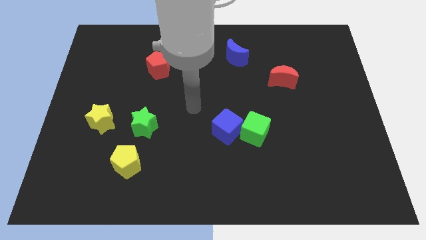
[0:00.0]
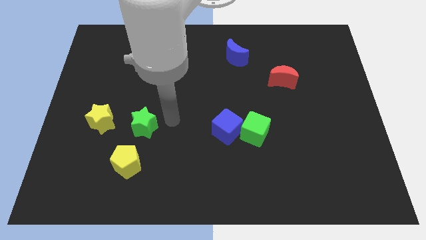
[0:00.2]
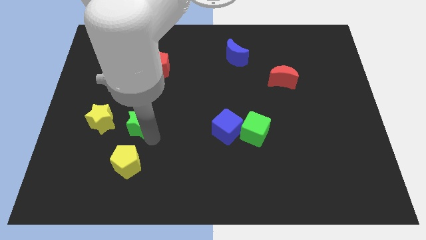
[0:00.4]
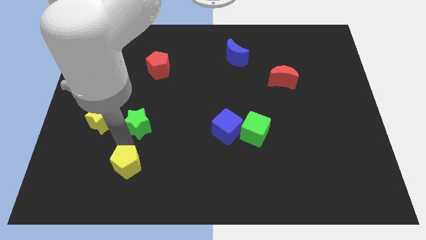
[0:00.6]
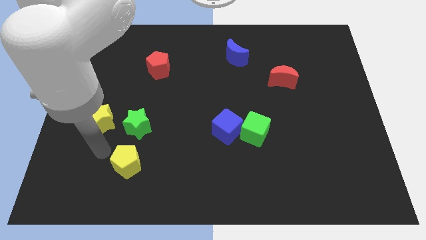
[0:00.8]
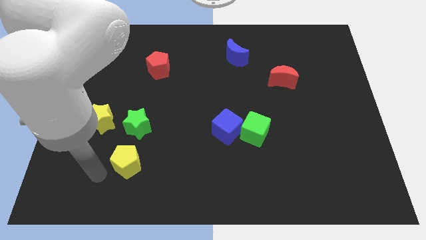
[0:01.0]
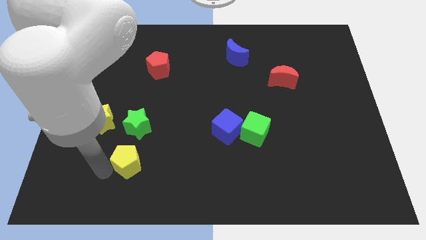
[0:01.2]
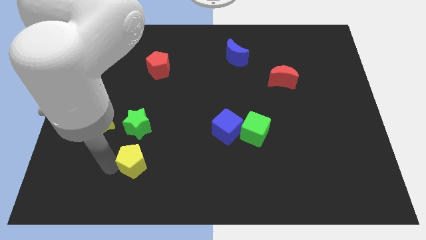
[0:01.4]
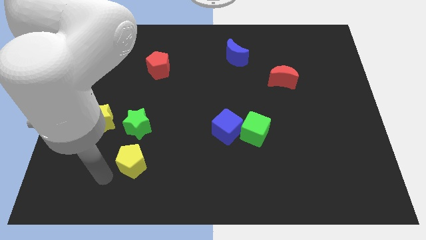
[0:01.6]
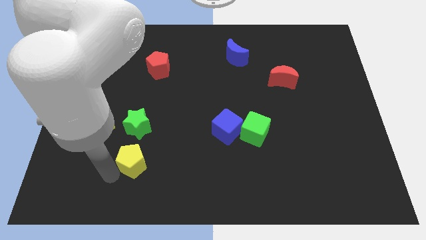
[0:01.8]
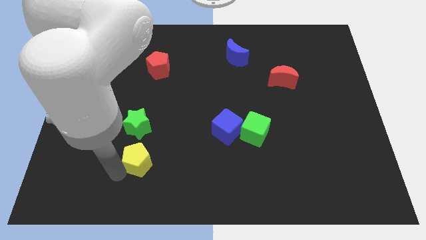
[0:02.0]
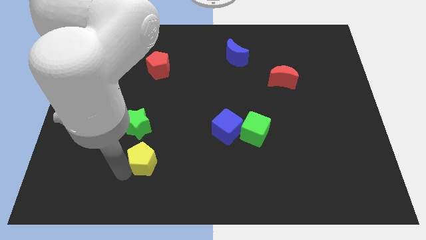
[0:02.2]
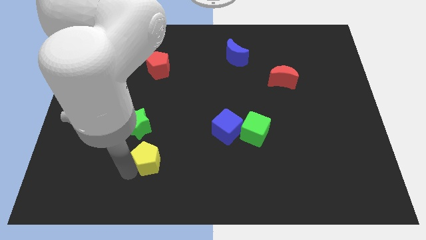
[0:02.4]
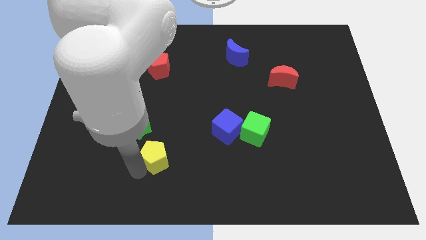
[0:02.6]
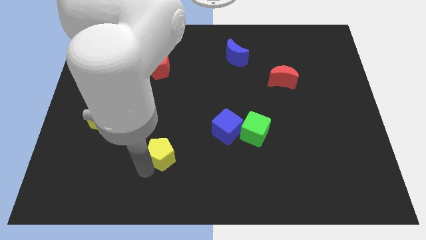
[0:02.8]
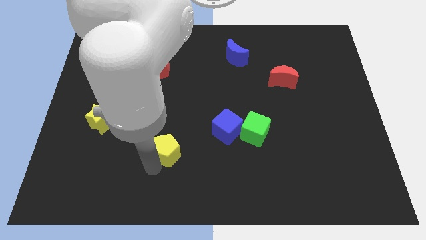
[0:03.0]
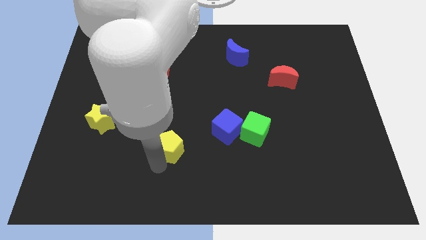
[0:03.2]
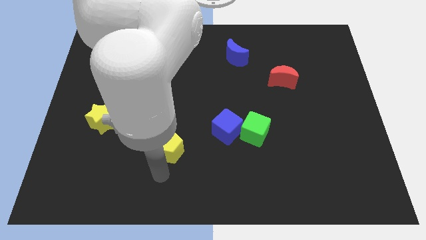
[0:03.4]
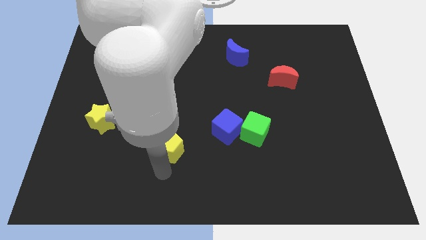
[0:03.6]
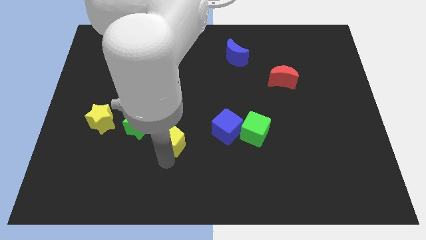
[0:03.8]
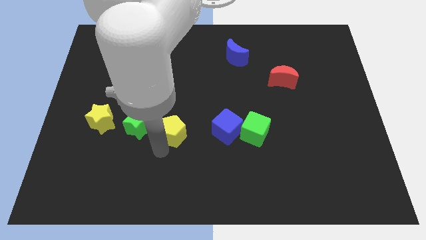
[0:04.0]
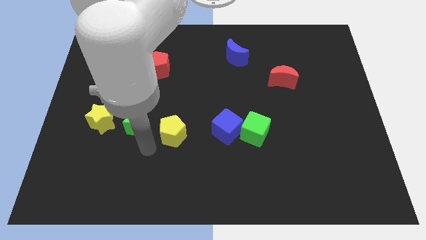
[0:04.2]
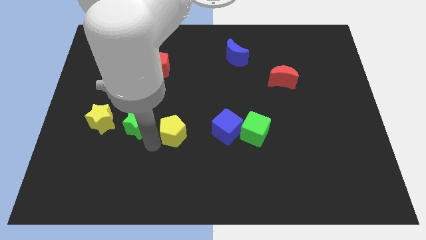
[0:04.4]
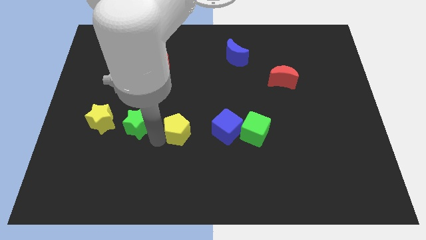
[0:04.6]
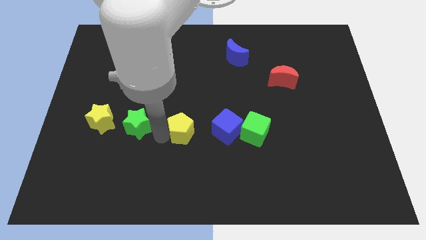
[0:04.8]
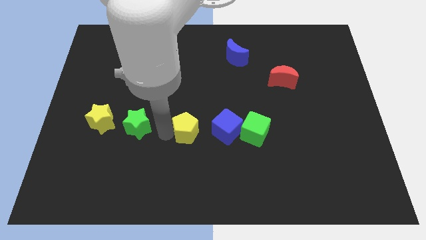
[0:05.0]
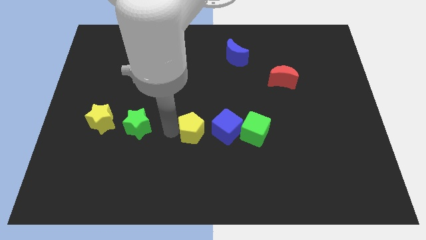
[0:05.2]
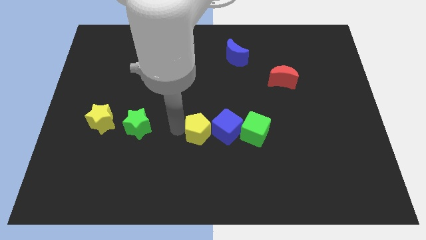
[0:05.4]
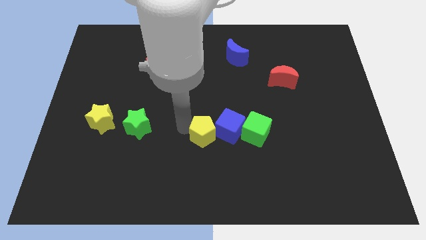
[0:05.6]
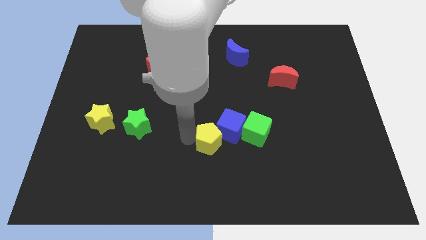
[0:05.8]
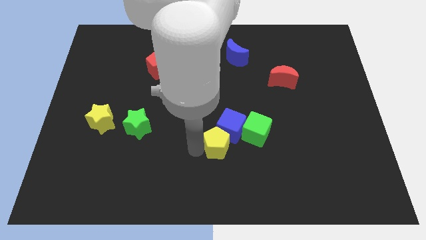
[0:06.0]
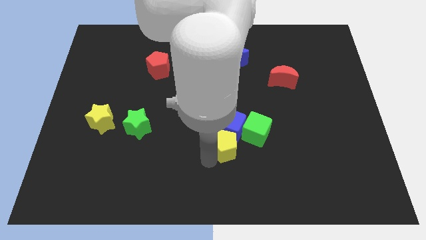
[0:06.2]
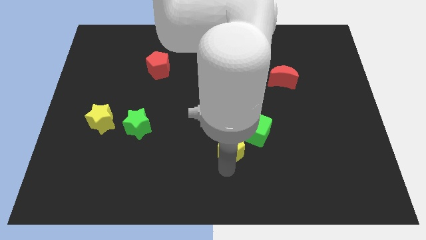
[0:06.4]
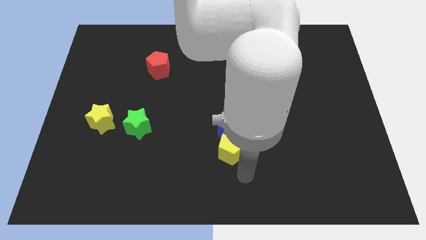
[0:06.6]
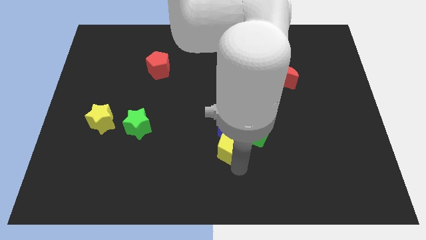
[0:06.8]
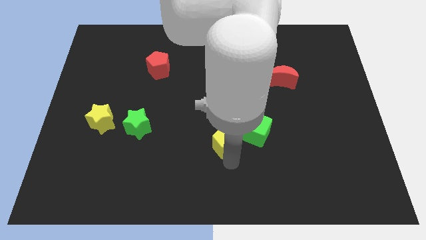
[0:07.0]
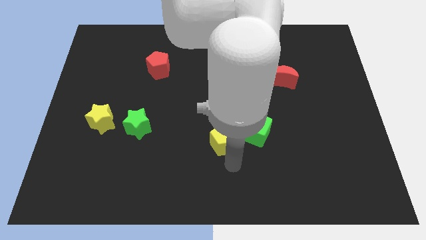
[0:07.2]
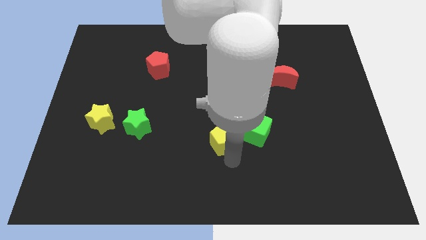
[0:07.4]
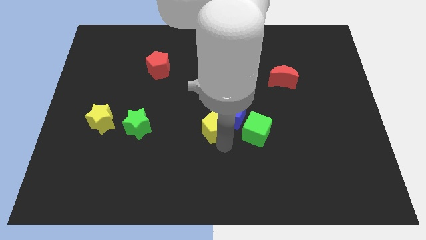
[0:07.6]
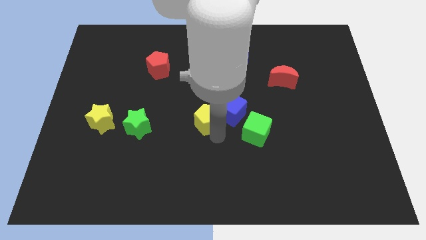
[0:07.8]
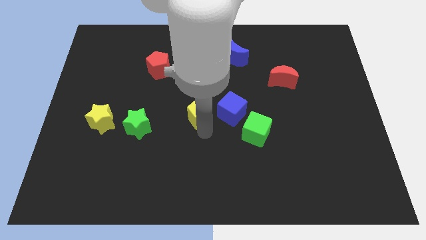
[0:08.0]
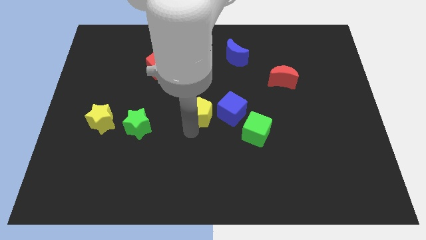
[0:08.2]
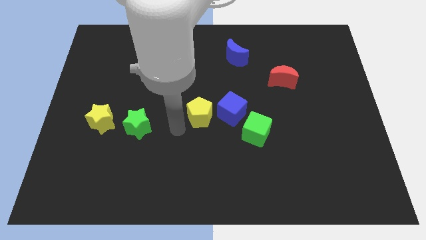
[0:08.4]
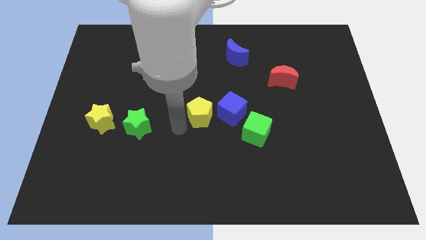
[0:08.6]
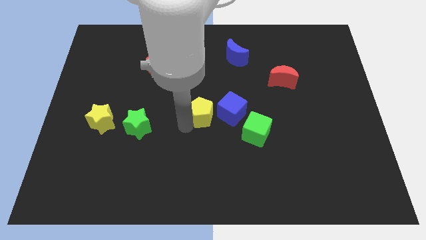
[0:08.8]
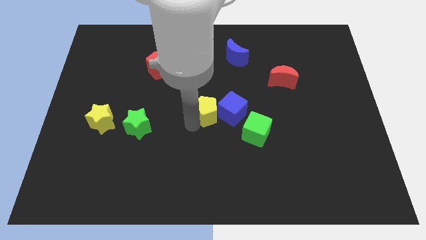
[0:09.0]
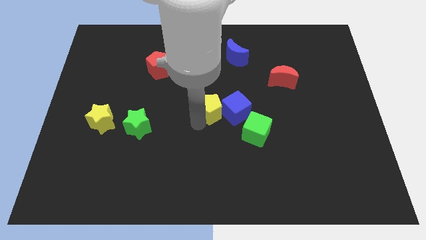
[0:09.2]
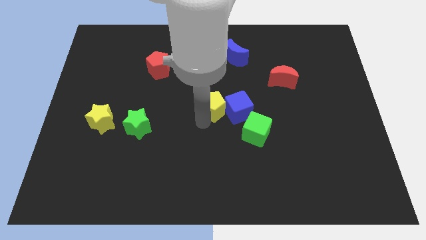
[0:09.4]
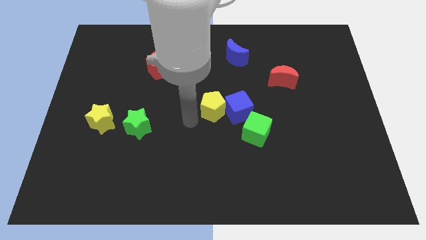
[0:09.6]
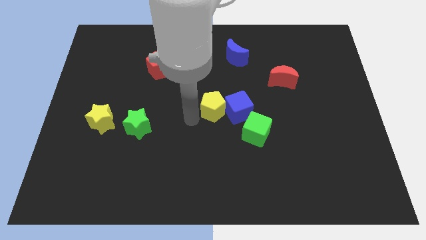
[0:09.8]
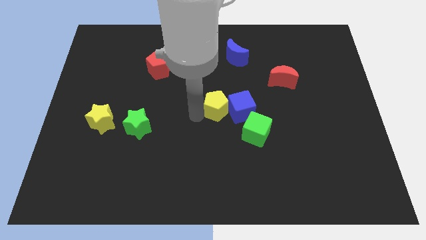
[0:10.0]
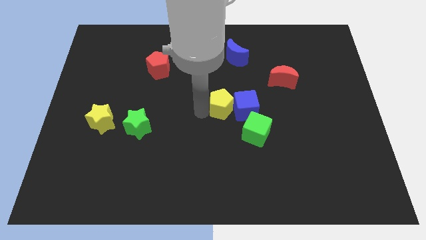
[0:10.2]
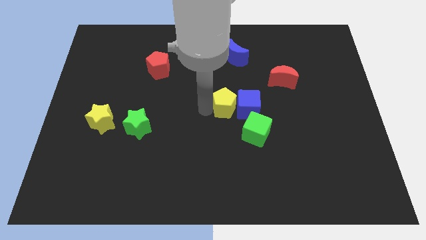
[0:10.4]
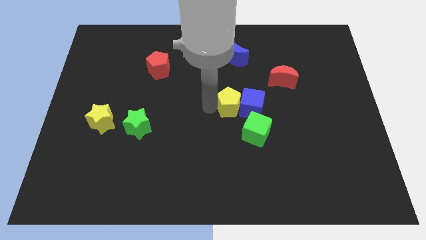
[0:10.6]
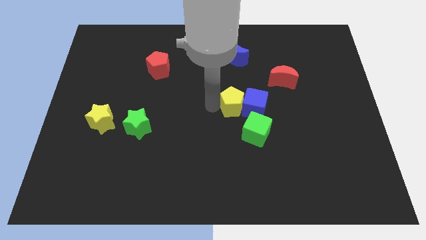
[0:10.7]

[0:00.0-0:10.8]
put the yellow pentagon above the green cube

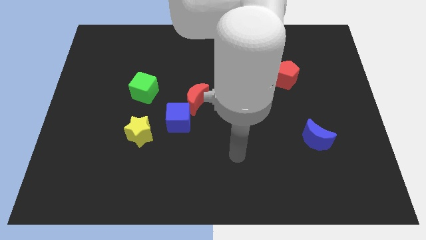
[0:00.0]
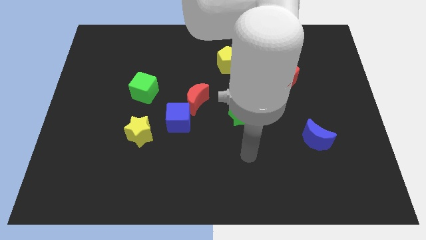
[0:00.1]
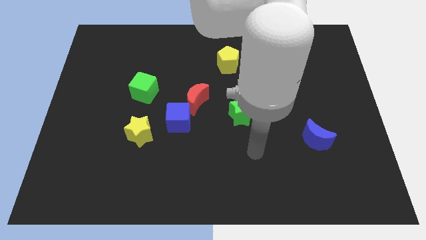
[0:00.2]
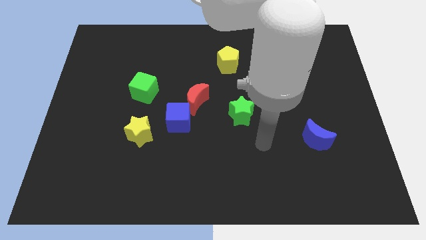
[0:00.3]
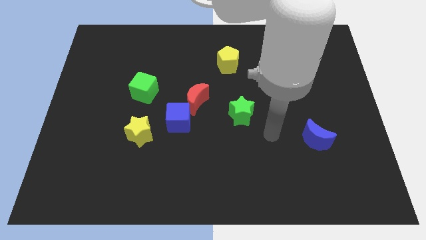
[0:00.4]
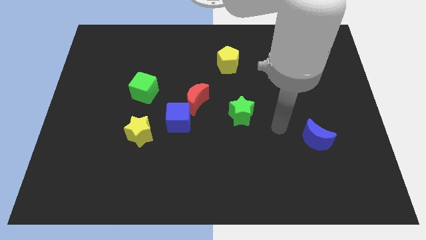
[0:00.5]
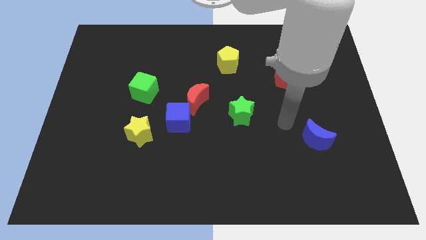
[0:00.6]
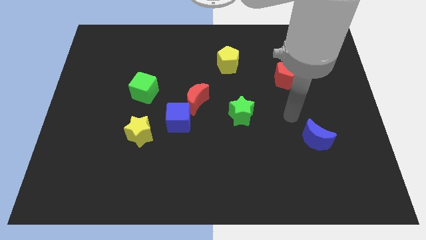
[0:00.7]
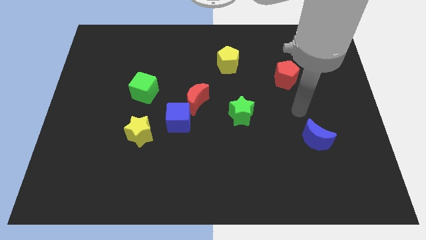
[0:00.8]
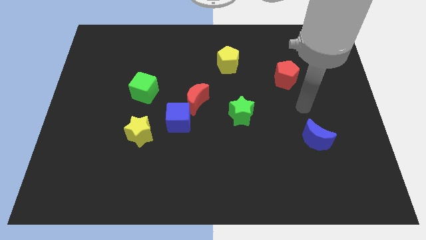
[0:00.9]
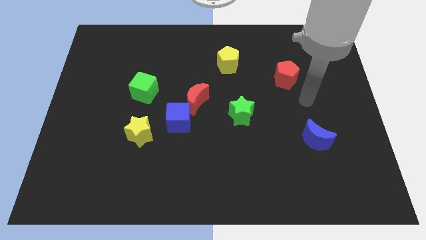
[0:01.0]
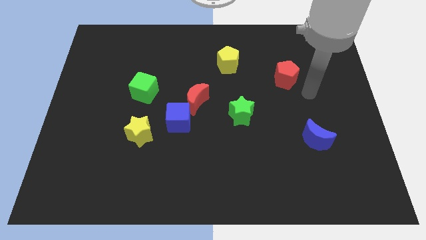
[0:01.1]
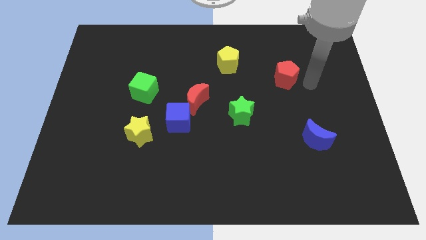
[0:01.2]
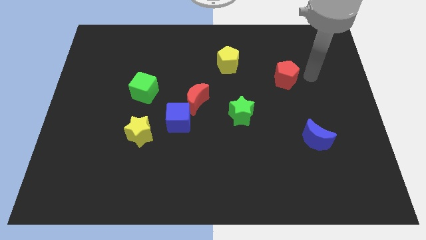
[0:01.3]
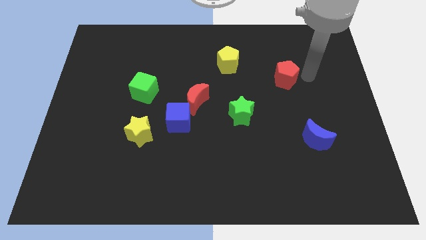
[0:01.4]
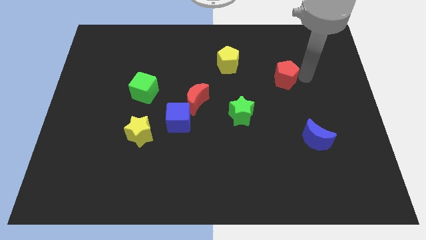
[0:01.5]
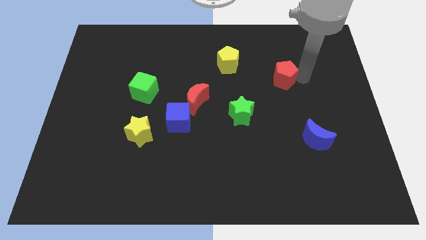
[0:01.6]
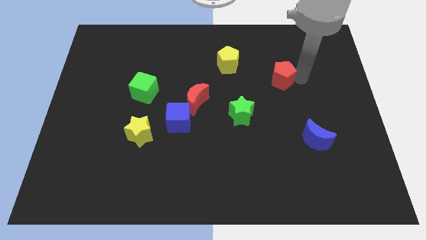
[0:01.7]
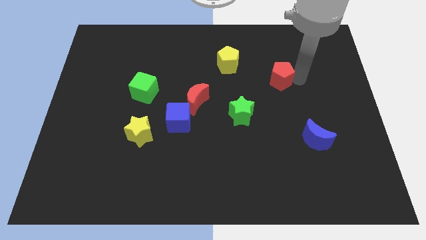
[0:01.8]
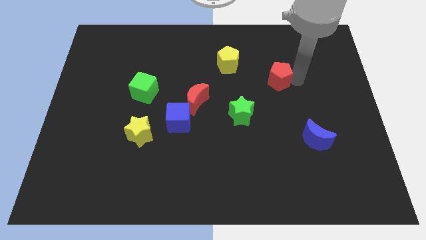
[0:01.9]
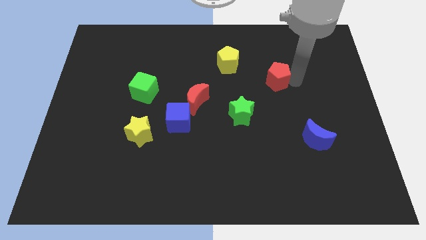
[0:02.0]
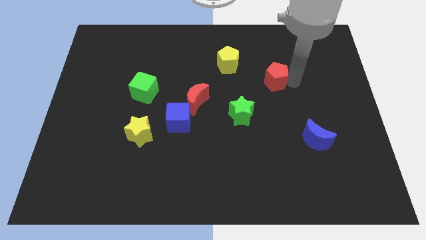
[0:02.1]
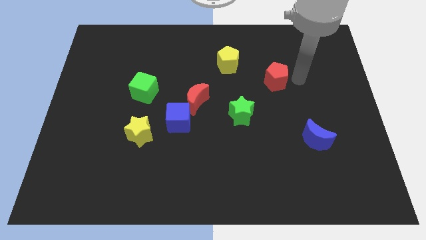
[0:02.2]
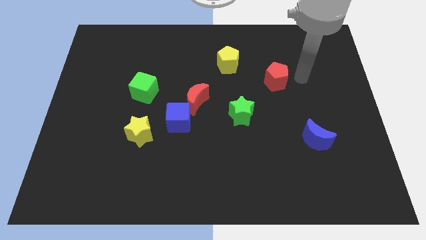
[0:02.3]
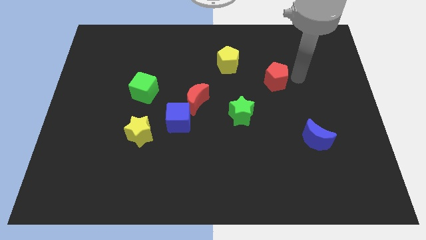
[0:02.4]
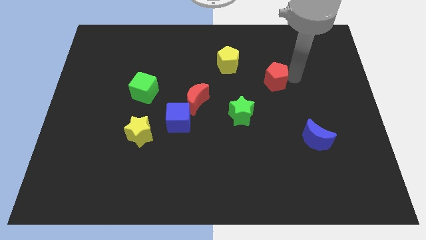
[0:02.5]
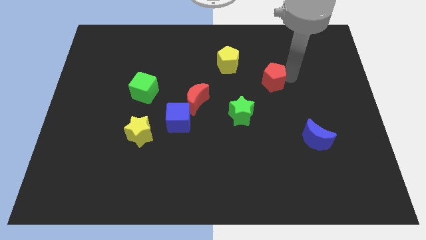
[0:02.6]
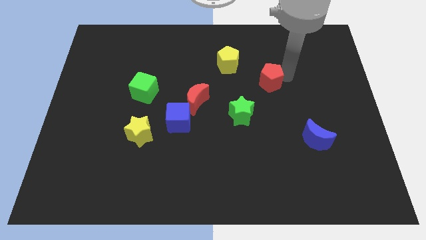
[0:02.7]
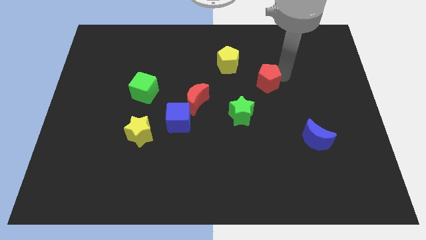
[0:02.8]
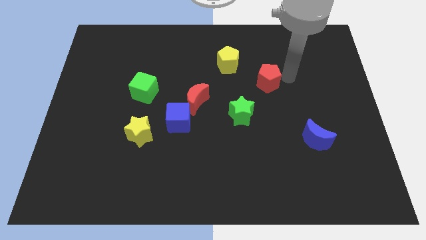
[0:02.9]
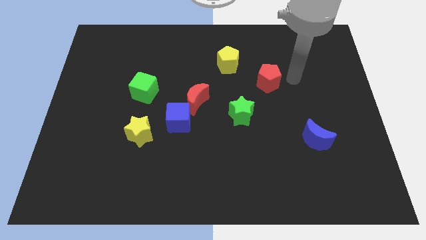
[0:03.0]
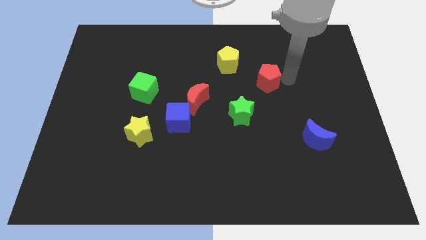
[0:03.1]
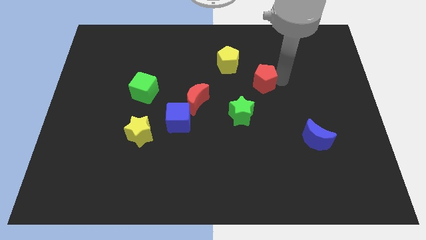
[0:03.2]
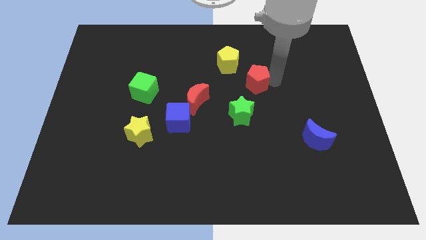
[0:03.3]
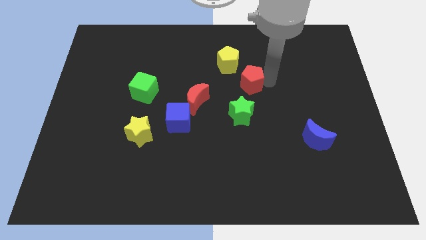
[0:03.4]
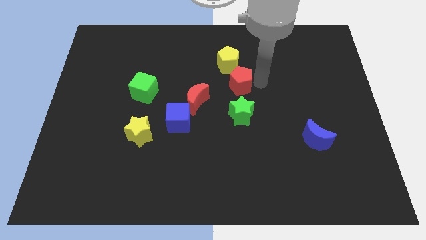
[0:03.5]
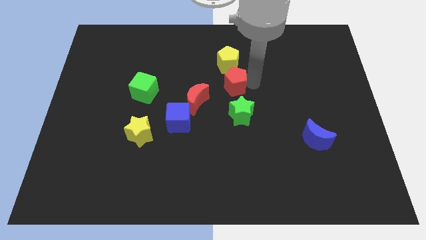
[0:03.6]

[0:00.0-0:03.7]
move the red pentagon to the top right side of the red moon
